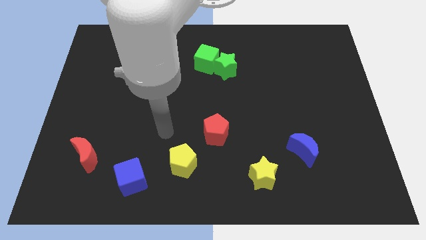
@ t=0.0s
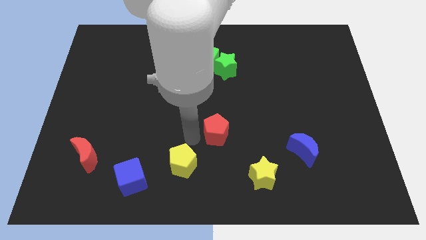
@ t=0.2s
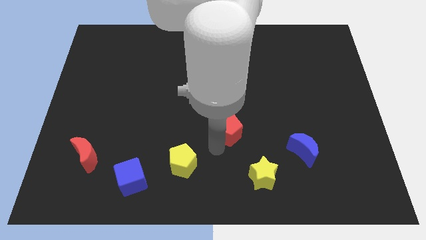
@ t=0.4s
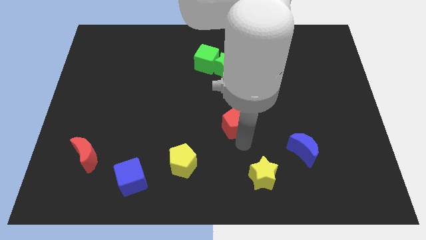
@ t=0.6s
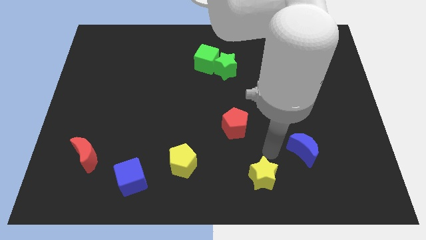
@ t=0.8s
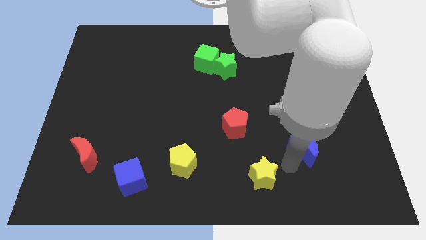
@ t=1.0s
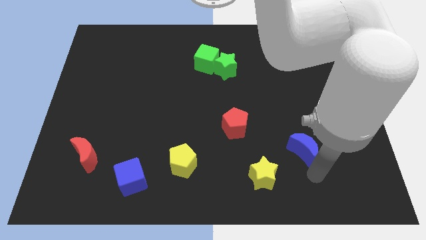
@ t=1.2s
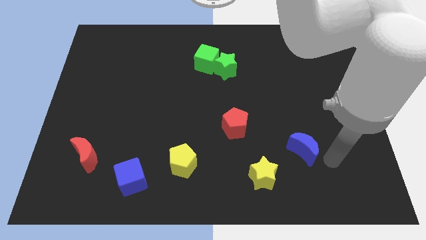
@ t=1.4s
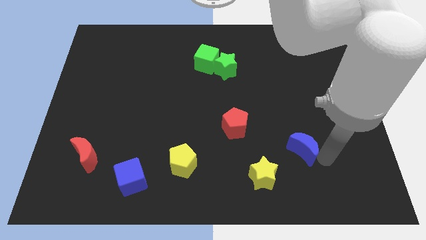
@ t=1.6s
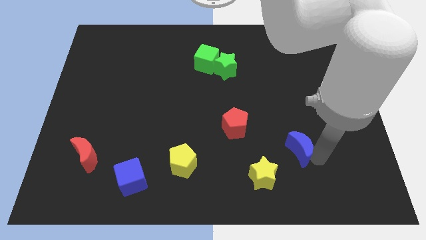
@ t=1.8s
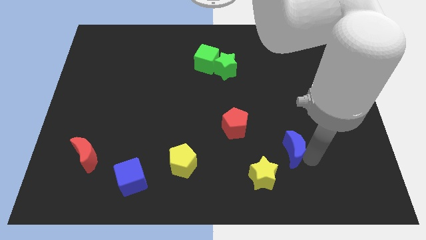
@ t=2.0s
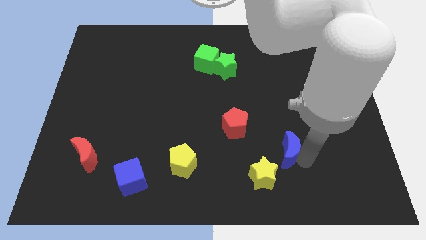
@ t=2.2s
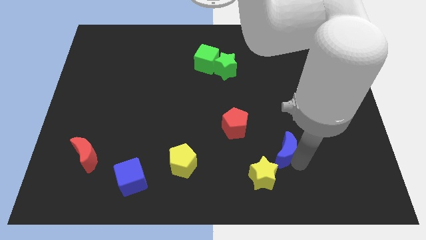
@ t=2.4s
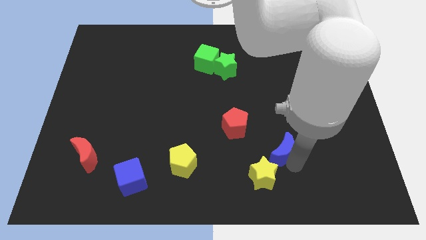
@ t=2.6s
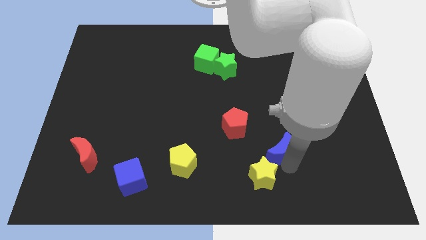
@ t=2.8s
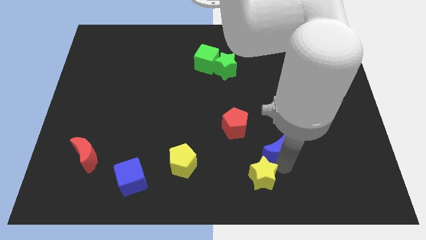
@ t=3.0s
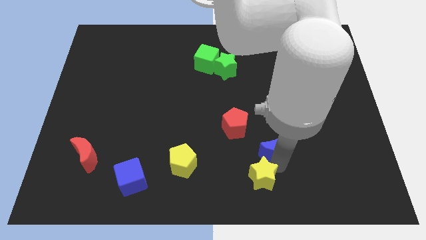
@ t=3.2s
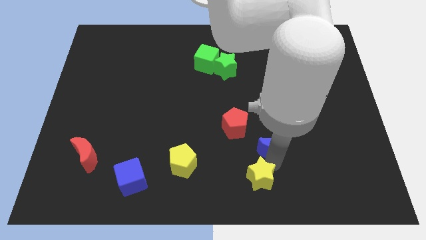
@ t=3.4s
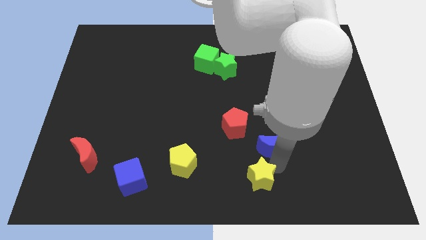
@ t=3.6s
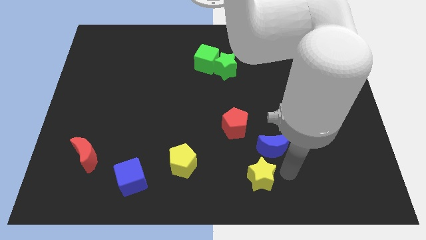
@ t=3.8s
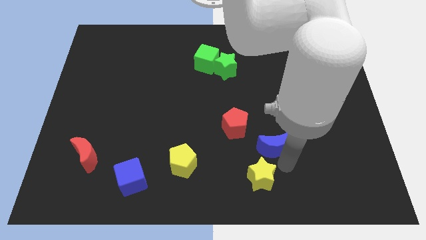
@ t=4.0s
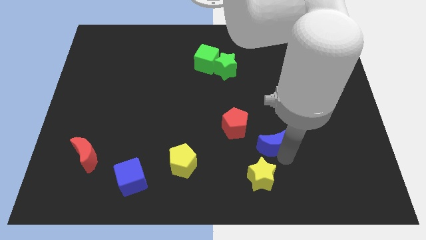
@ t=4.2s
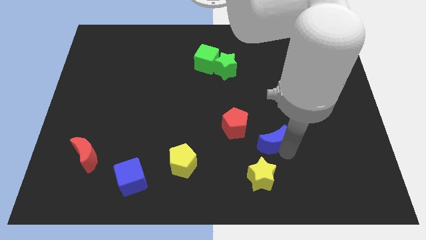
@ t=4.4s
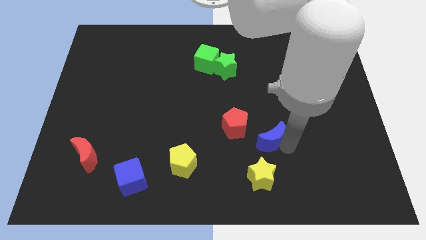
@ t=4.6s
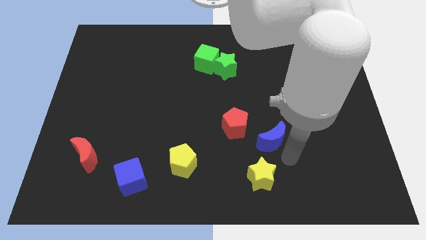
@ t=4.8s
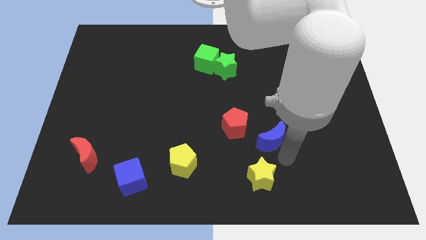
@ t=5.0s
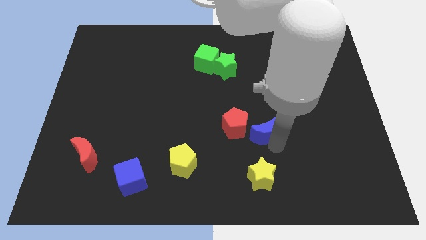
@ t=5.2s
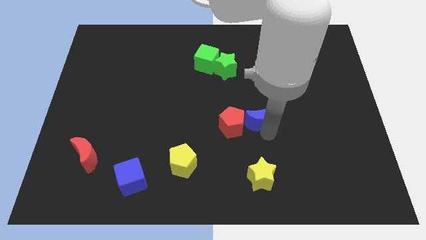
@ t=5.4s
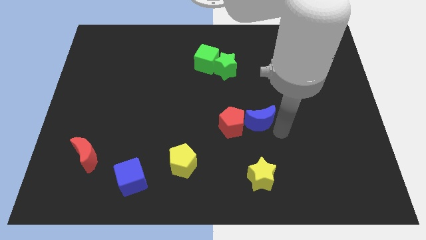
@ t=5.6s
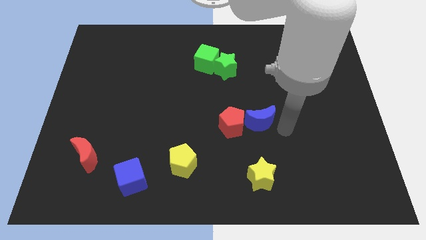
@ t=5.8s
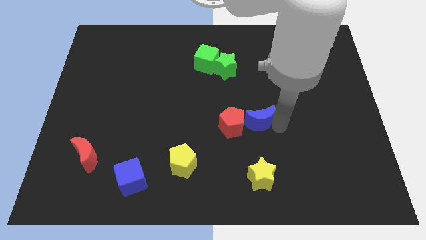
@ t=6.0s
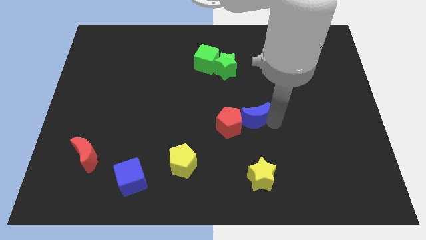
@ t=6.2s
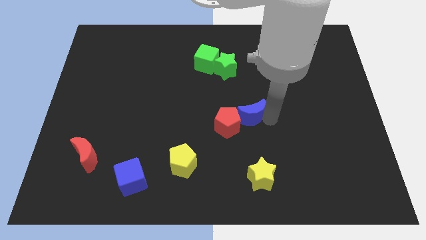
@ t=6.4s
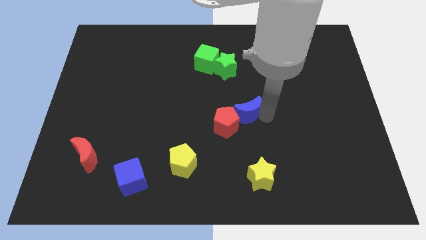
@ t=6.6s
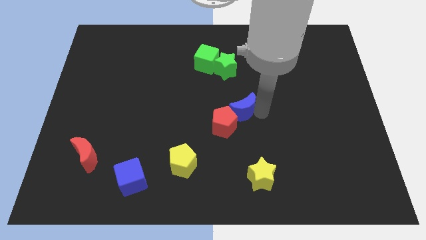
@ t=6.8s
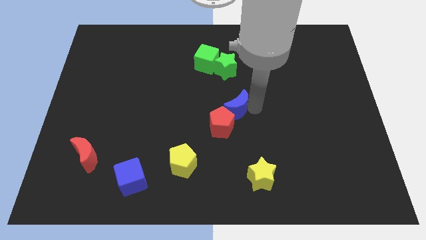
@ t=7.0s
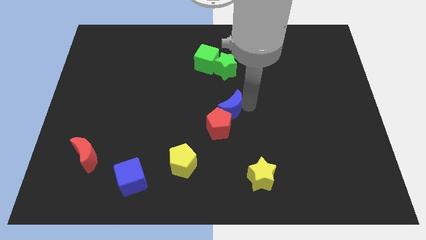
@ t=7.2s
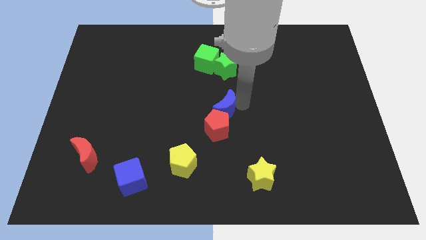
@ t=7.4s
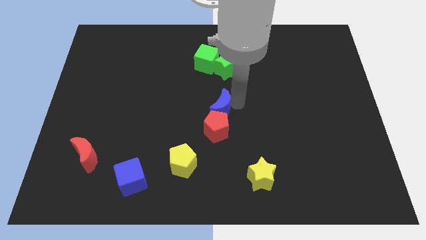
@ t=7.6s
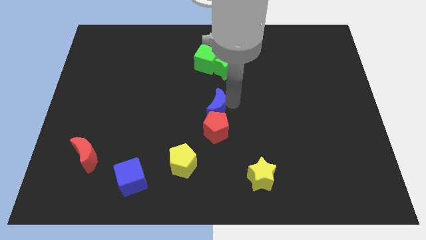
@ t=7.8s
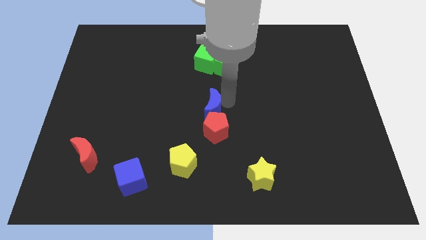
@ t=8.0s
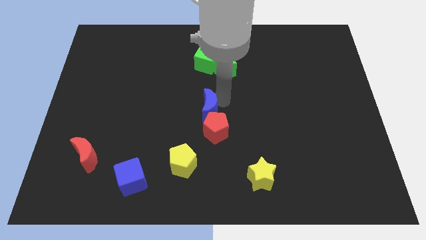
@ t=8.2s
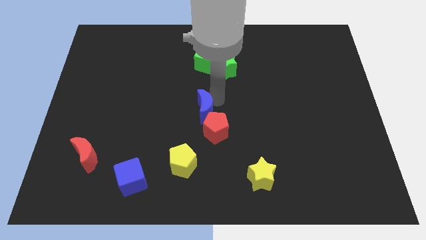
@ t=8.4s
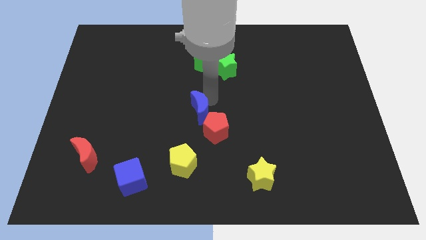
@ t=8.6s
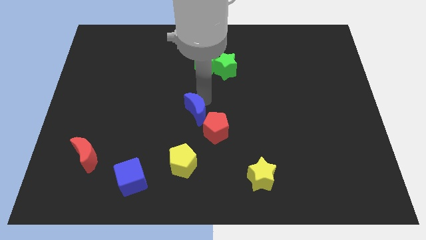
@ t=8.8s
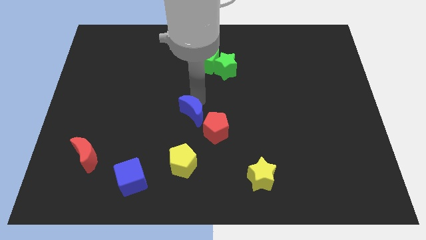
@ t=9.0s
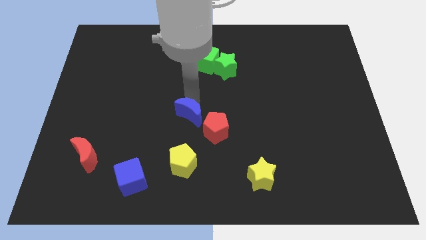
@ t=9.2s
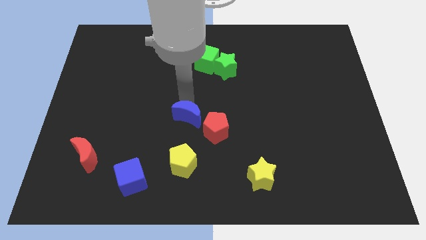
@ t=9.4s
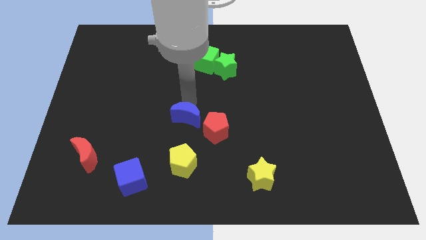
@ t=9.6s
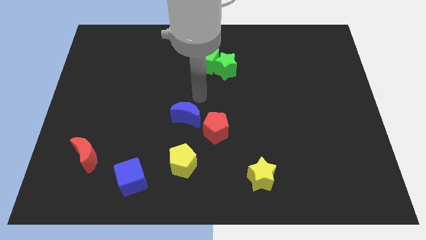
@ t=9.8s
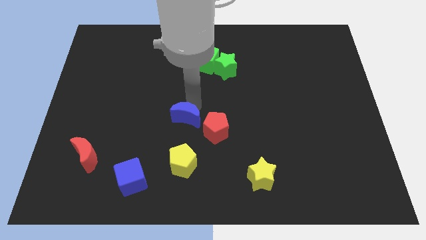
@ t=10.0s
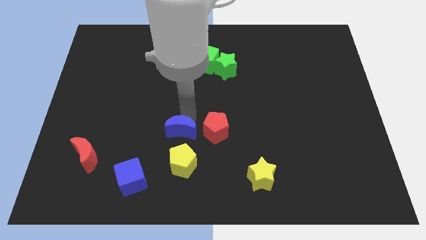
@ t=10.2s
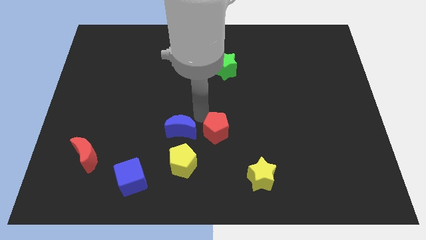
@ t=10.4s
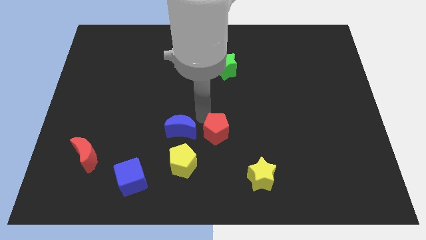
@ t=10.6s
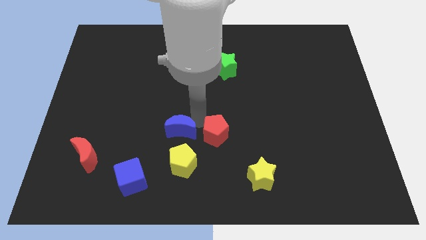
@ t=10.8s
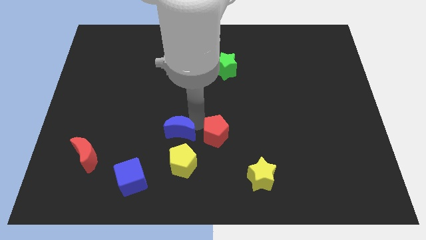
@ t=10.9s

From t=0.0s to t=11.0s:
move the blue moon to the top left side of the yellow pentagon

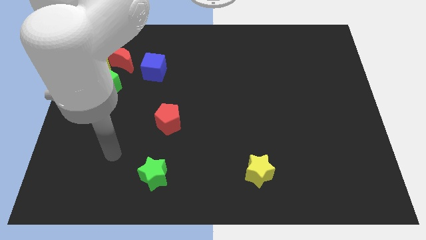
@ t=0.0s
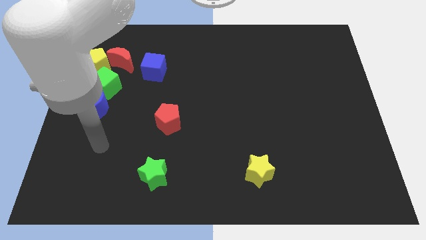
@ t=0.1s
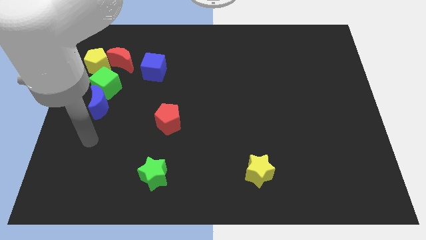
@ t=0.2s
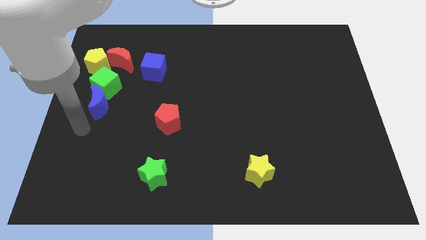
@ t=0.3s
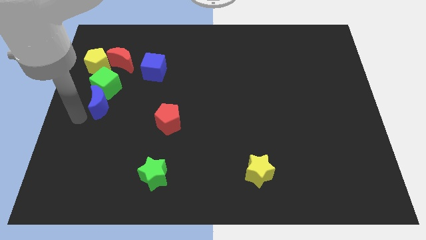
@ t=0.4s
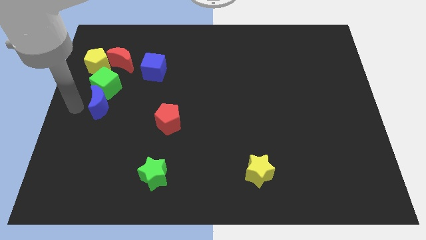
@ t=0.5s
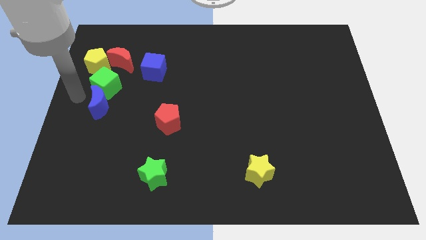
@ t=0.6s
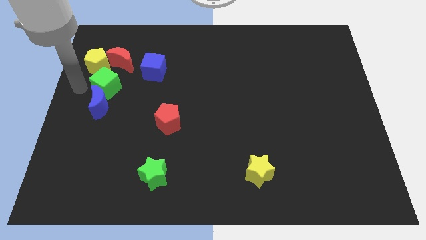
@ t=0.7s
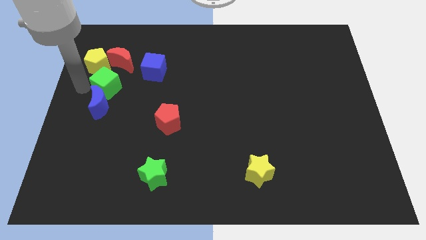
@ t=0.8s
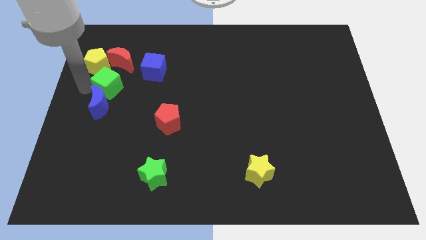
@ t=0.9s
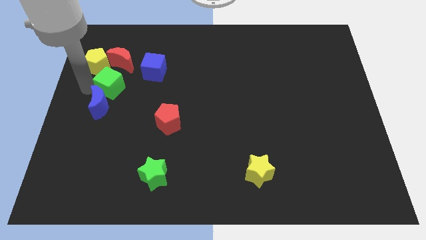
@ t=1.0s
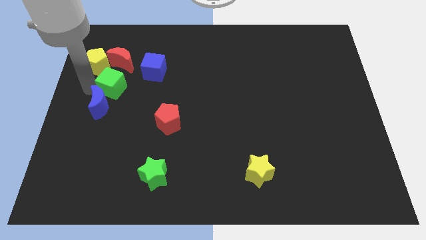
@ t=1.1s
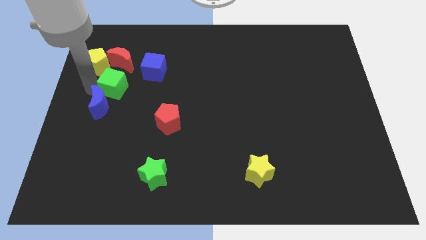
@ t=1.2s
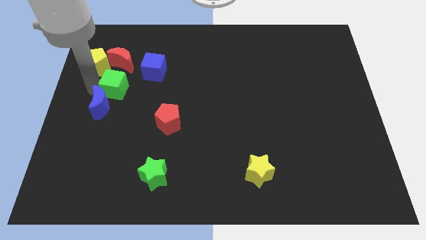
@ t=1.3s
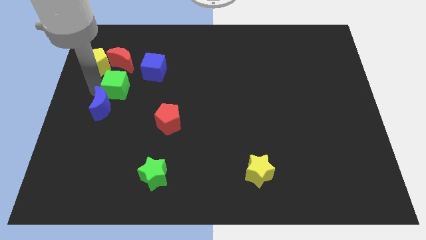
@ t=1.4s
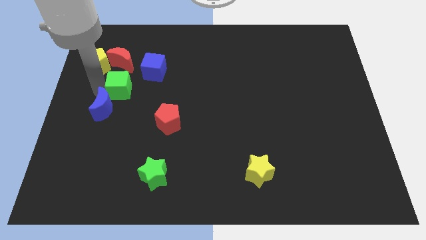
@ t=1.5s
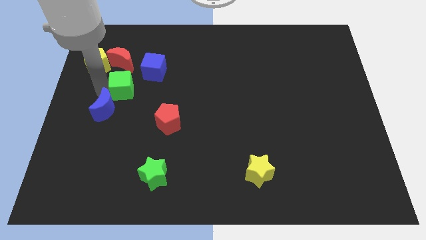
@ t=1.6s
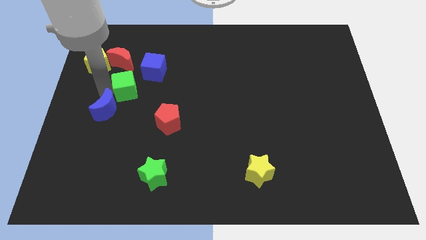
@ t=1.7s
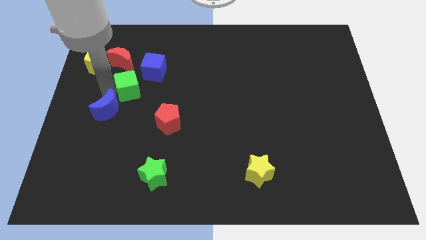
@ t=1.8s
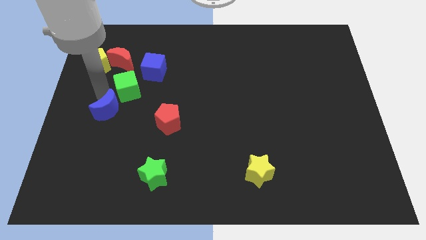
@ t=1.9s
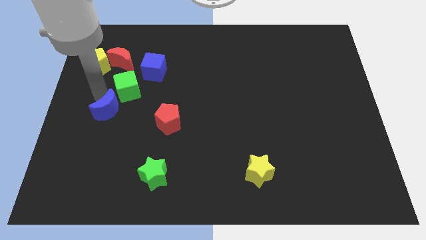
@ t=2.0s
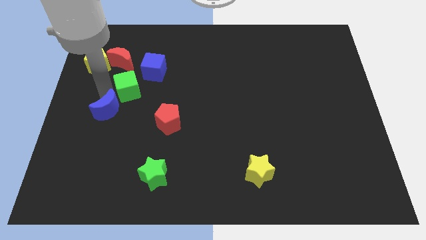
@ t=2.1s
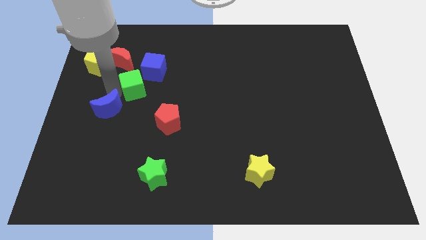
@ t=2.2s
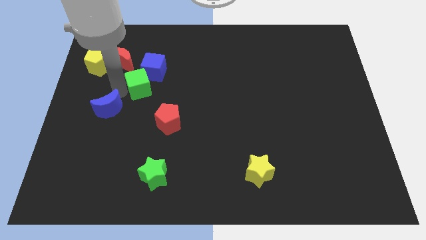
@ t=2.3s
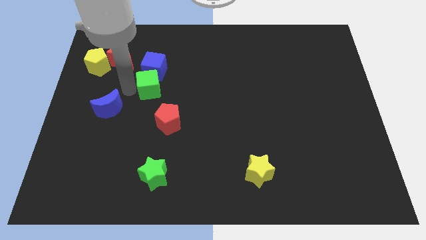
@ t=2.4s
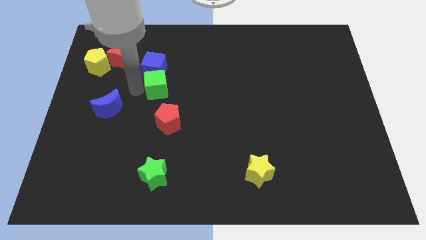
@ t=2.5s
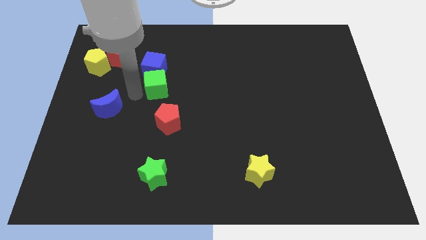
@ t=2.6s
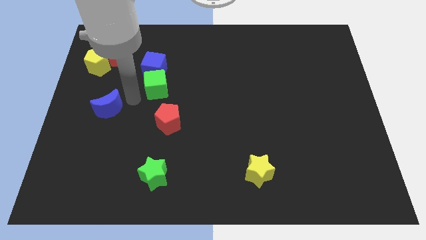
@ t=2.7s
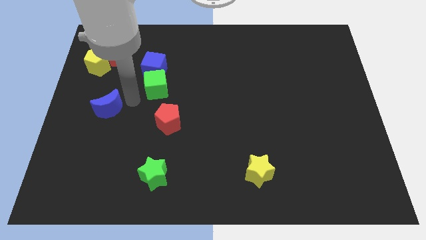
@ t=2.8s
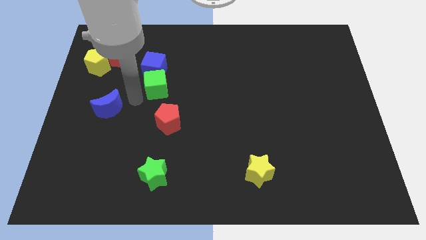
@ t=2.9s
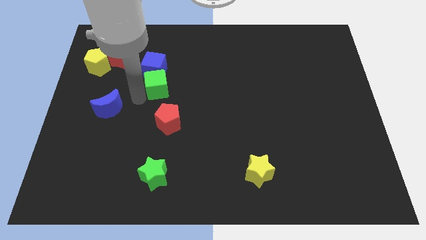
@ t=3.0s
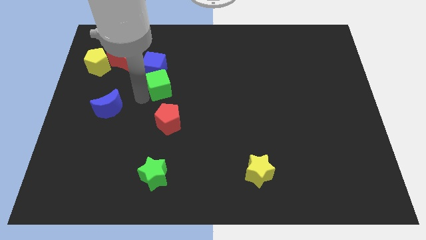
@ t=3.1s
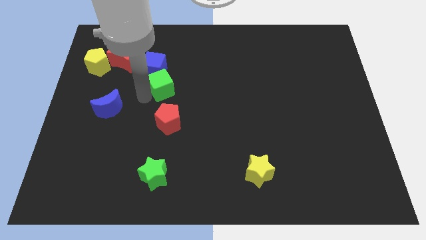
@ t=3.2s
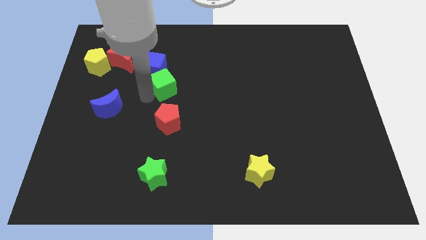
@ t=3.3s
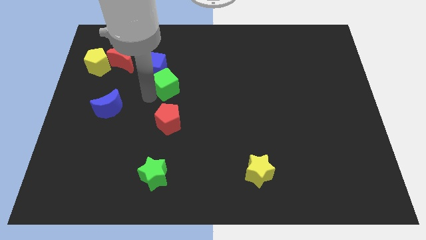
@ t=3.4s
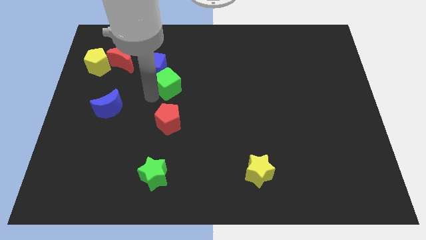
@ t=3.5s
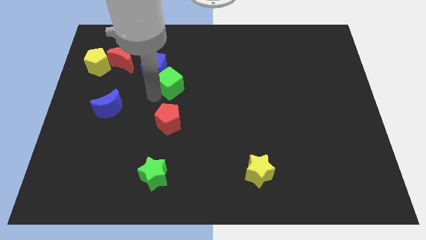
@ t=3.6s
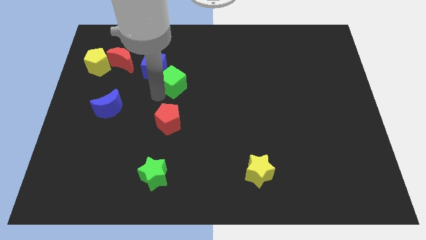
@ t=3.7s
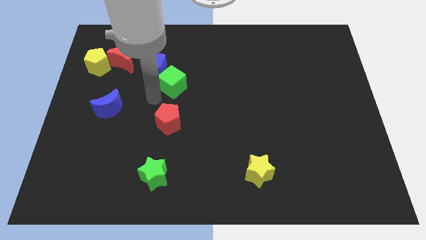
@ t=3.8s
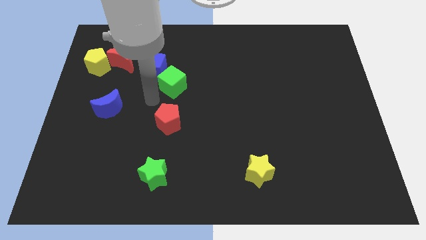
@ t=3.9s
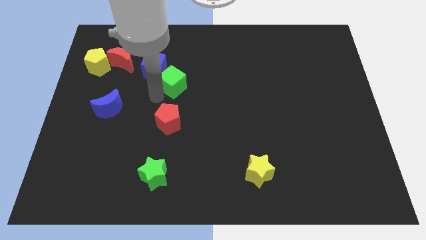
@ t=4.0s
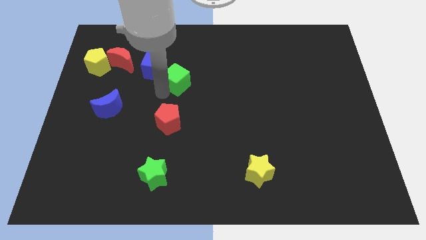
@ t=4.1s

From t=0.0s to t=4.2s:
move the green cube to the right side of the blue cube
